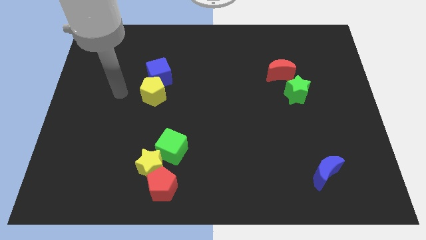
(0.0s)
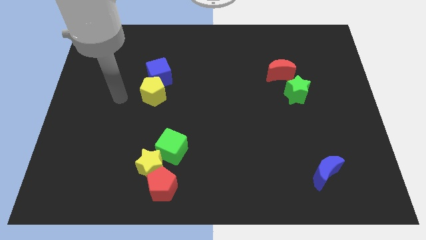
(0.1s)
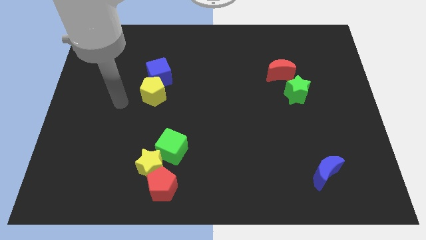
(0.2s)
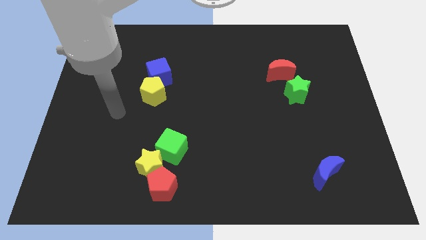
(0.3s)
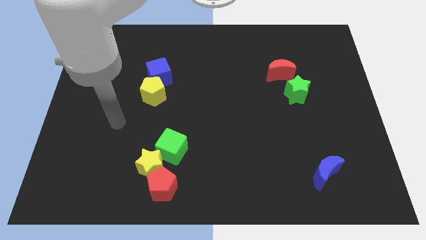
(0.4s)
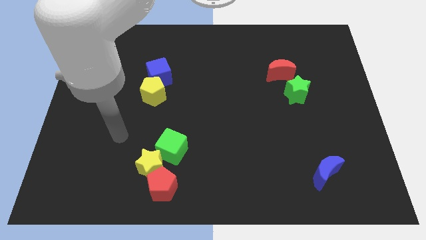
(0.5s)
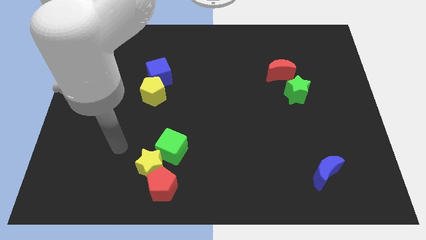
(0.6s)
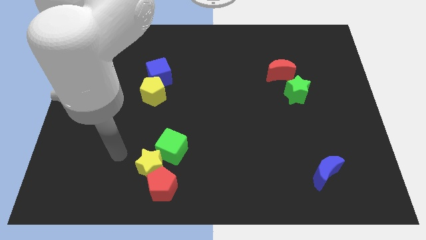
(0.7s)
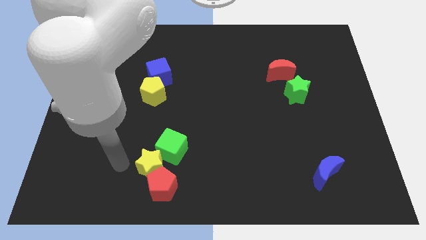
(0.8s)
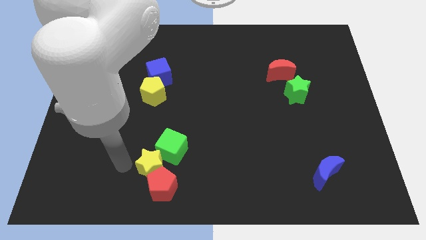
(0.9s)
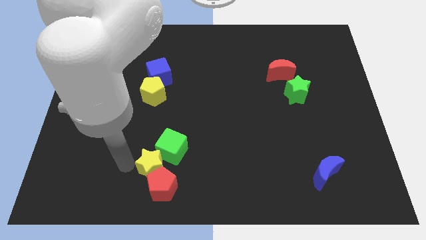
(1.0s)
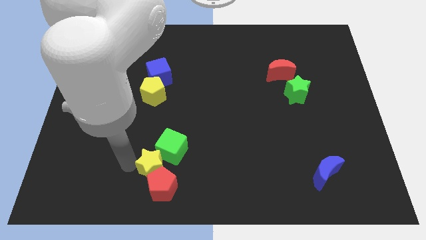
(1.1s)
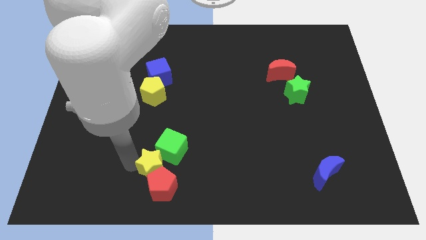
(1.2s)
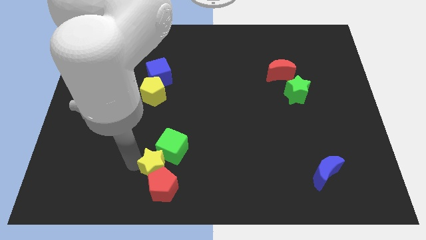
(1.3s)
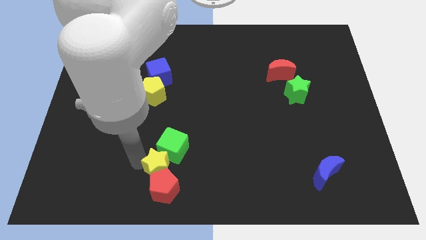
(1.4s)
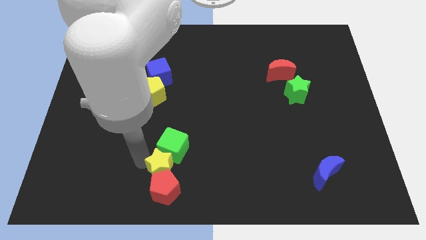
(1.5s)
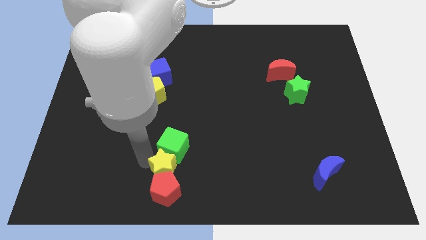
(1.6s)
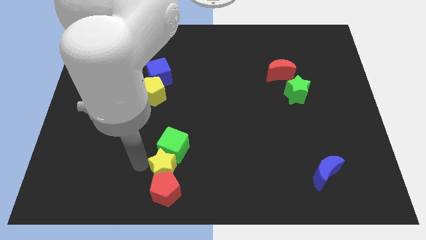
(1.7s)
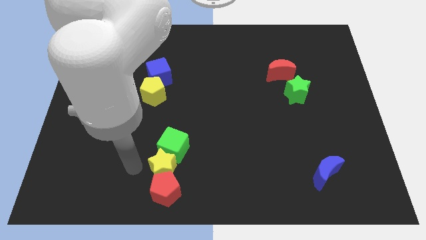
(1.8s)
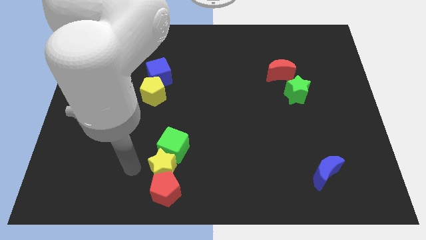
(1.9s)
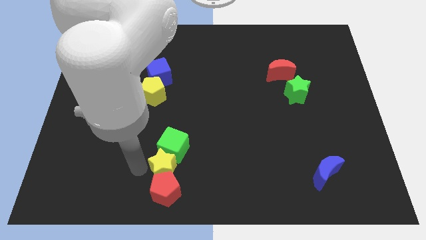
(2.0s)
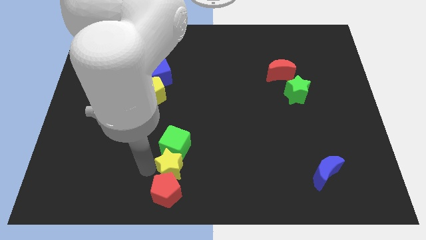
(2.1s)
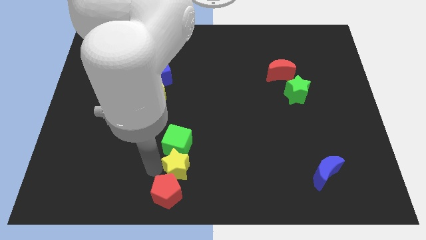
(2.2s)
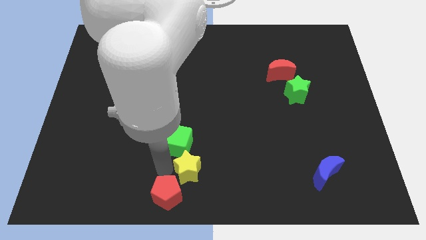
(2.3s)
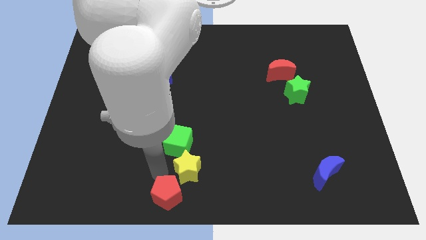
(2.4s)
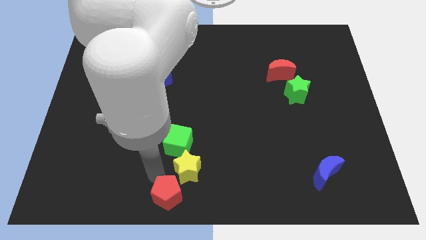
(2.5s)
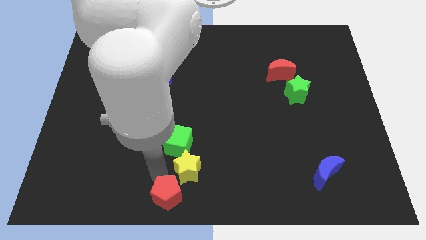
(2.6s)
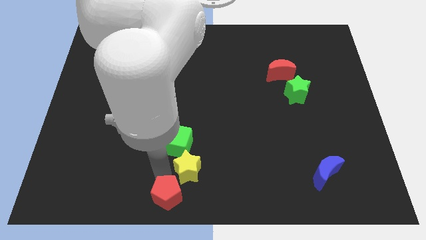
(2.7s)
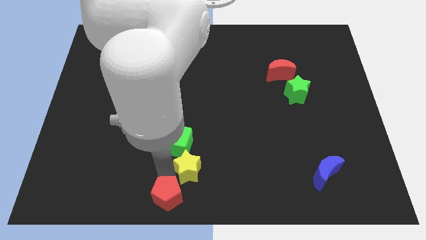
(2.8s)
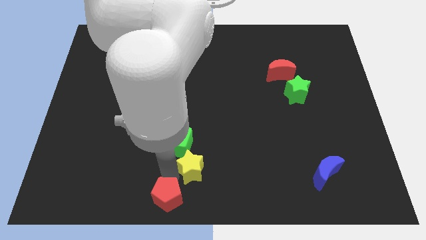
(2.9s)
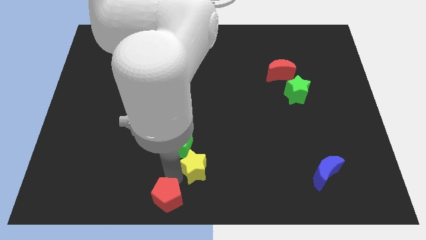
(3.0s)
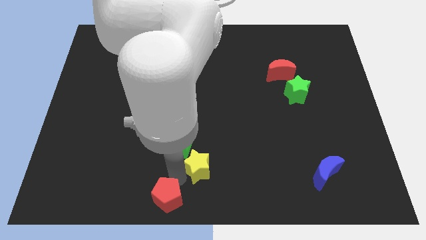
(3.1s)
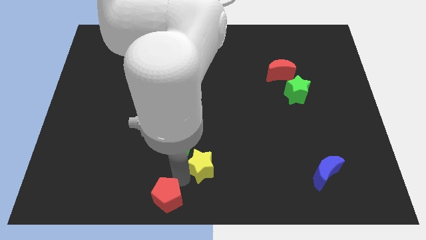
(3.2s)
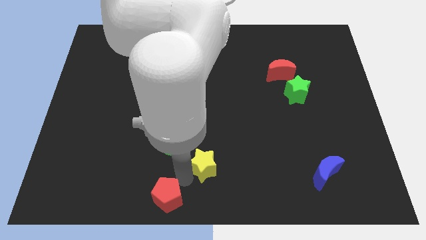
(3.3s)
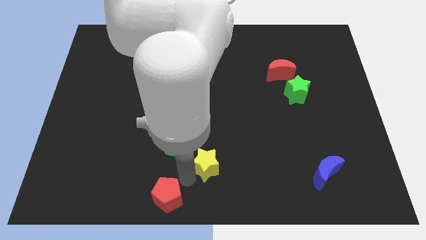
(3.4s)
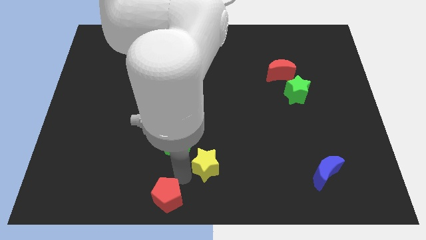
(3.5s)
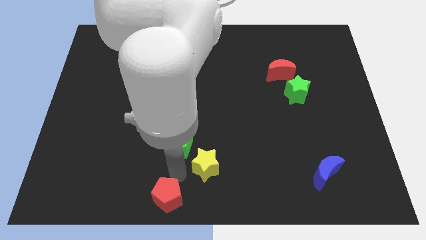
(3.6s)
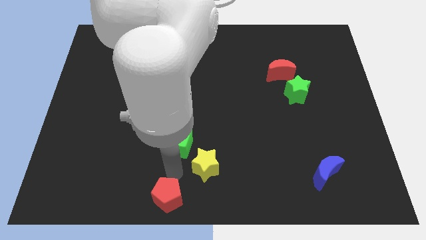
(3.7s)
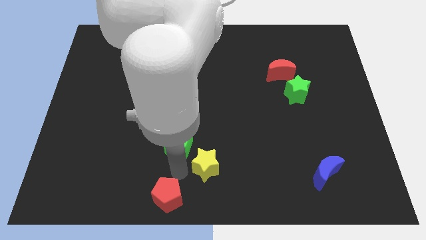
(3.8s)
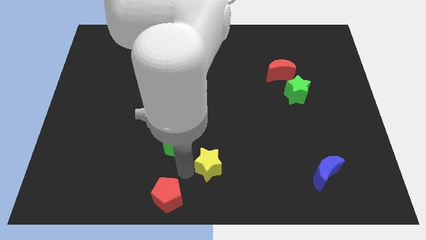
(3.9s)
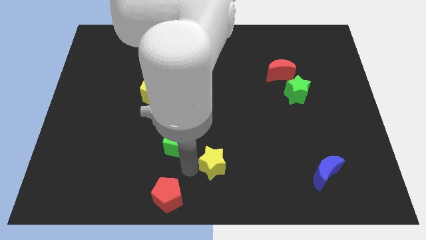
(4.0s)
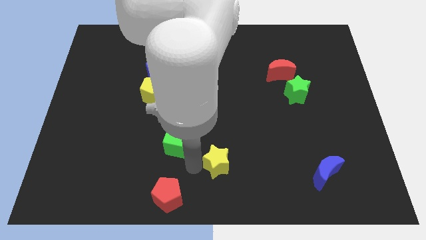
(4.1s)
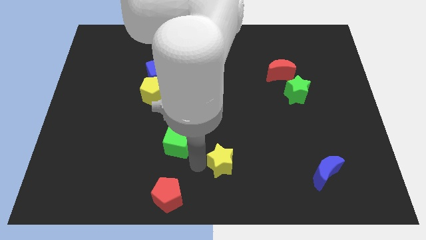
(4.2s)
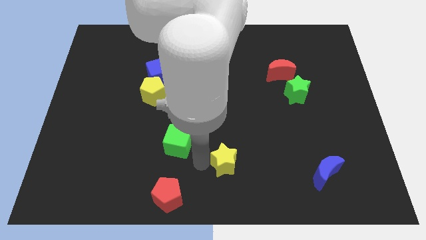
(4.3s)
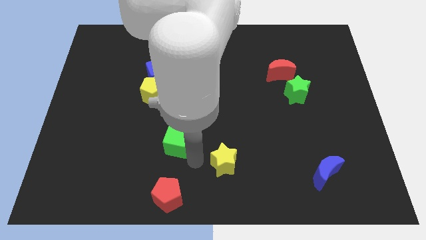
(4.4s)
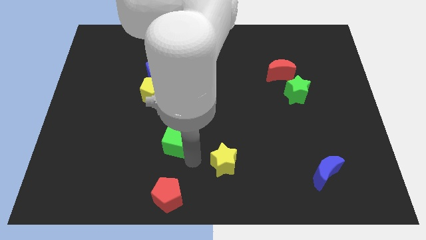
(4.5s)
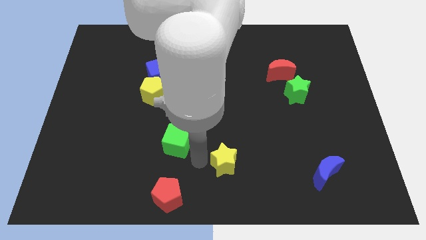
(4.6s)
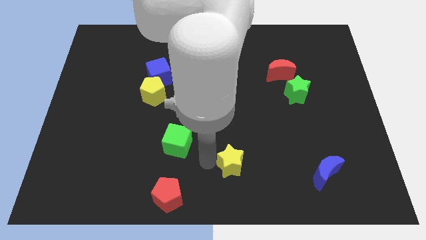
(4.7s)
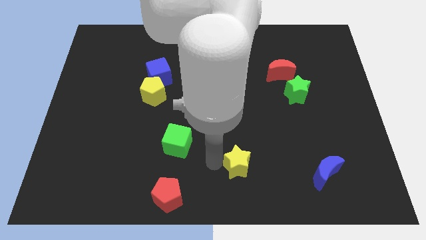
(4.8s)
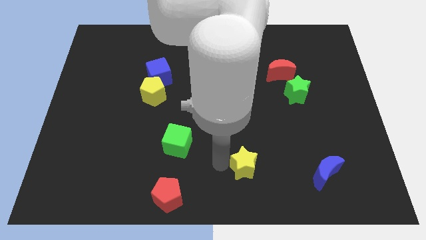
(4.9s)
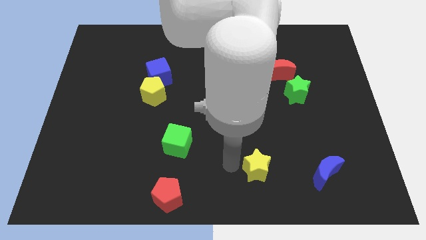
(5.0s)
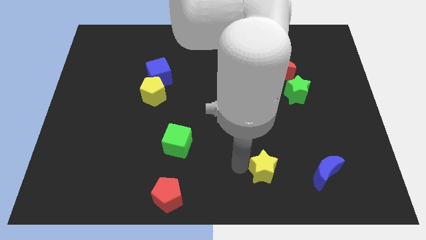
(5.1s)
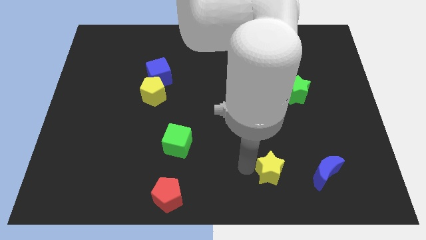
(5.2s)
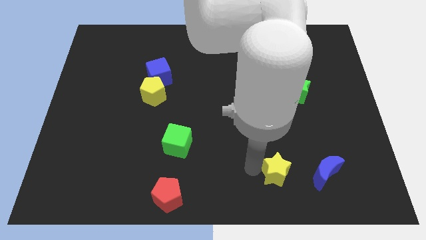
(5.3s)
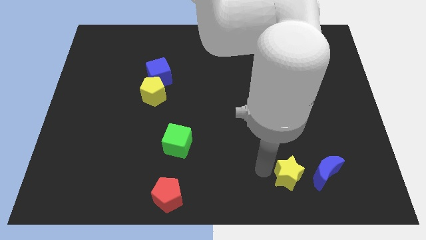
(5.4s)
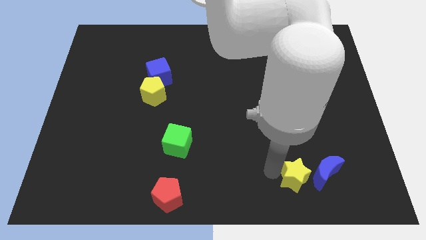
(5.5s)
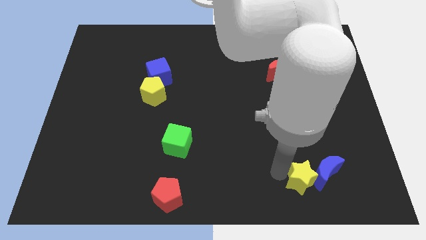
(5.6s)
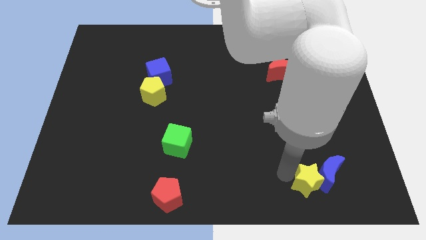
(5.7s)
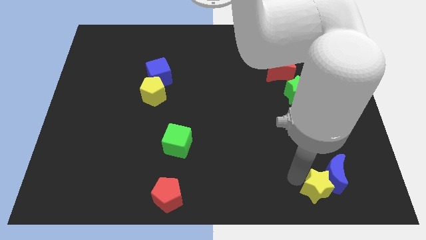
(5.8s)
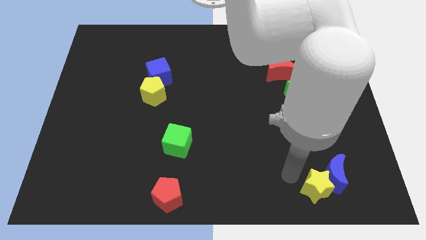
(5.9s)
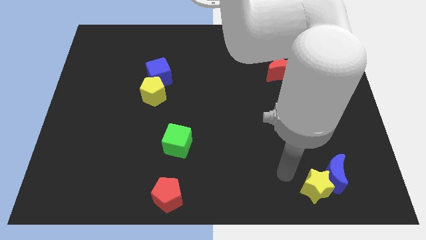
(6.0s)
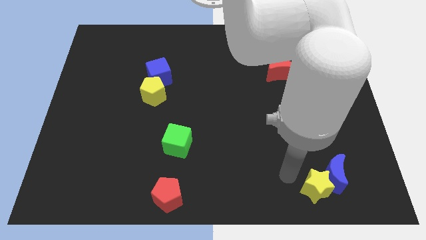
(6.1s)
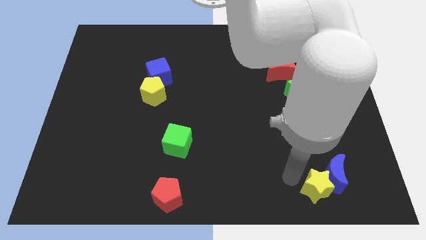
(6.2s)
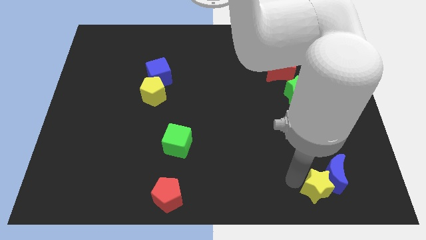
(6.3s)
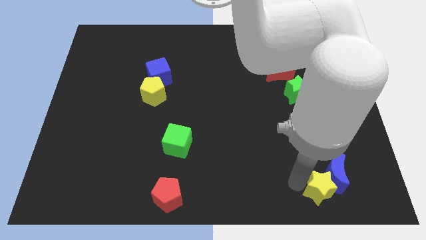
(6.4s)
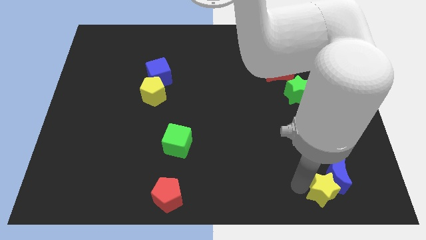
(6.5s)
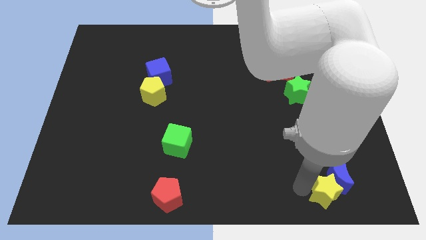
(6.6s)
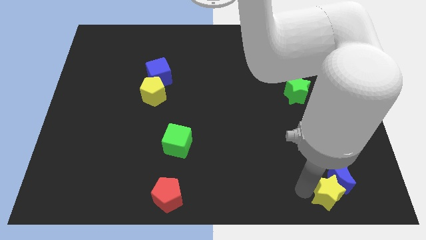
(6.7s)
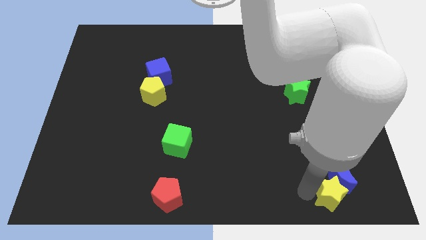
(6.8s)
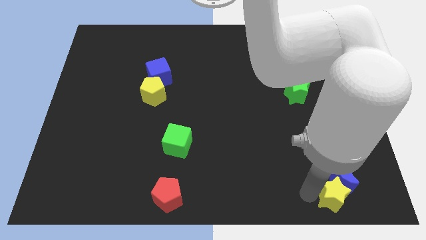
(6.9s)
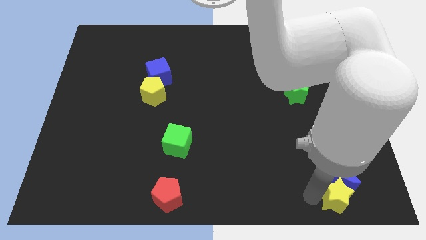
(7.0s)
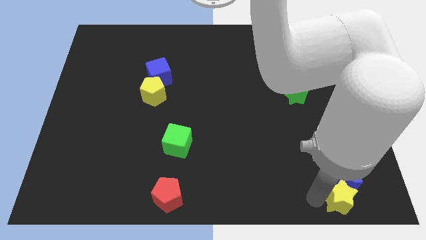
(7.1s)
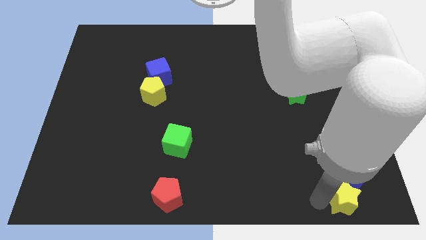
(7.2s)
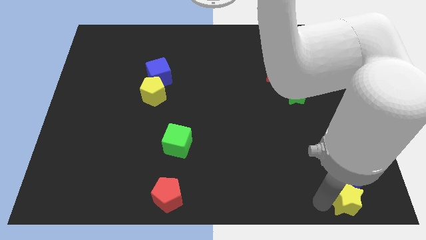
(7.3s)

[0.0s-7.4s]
move the yellow star to the bottom right corner
